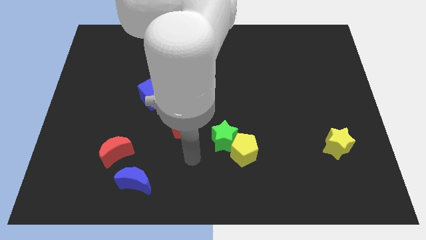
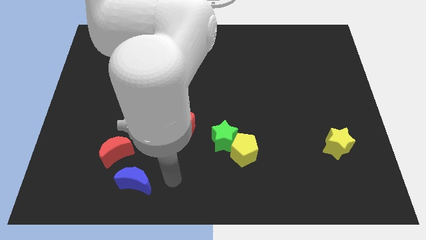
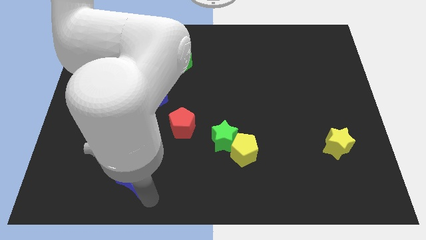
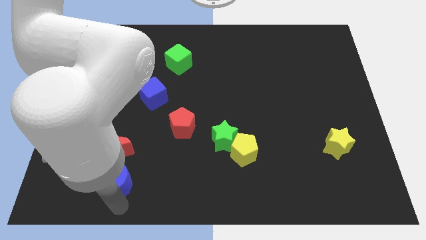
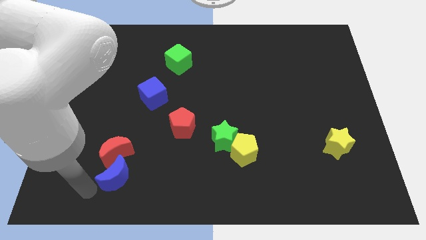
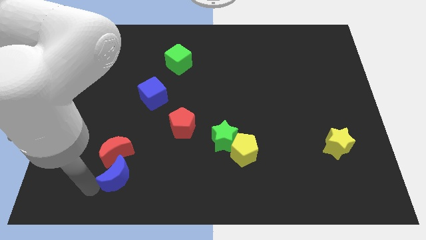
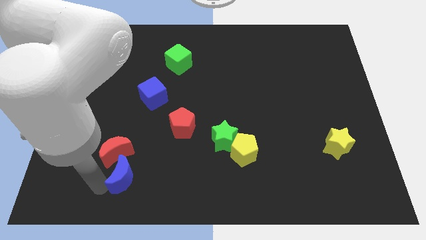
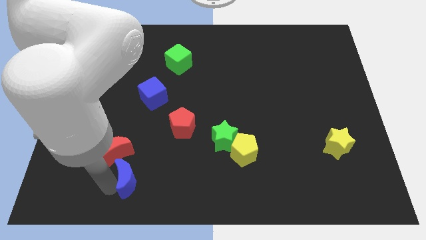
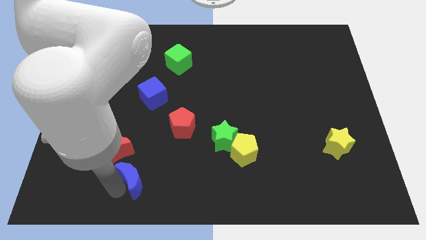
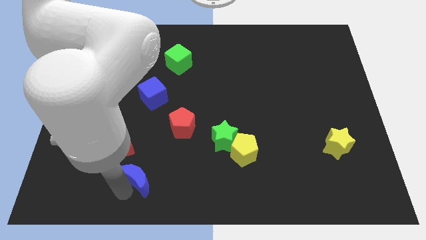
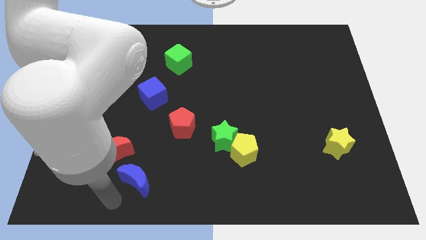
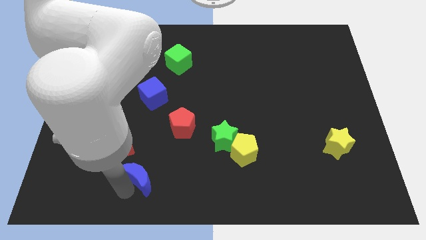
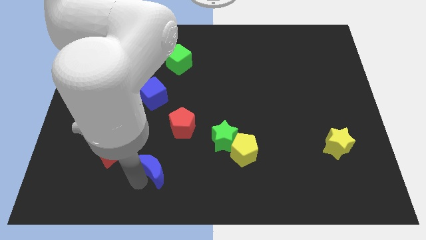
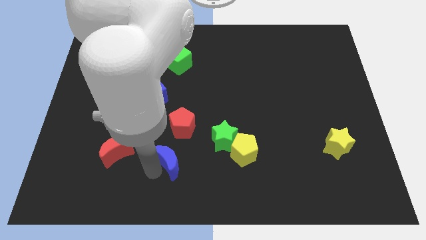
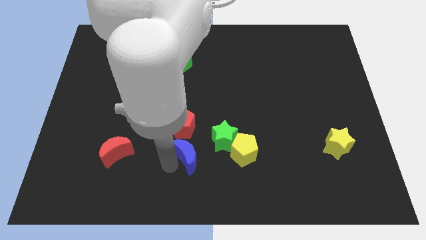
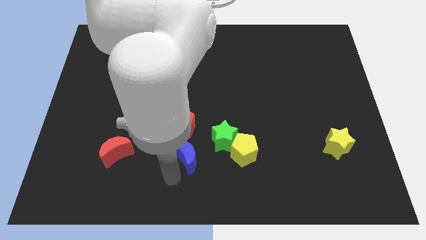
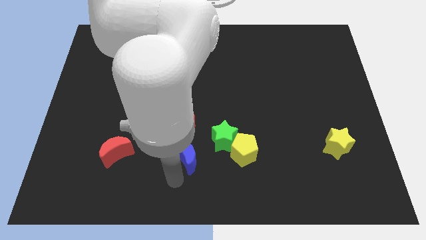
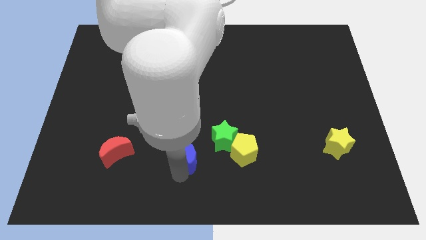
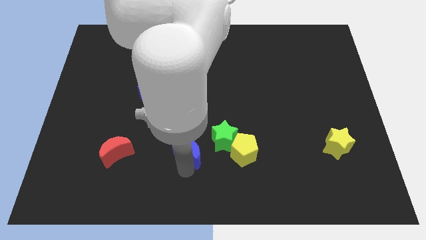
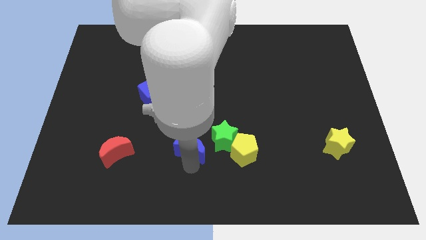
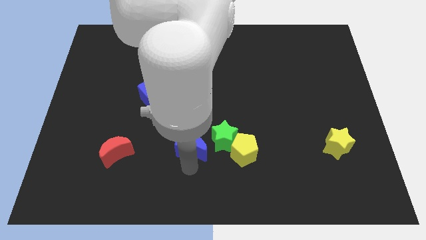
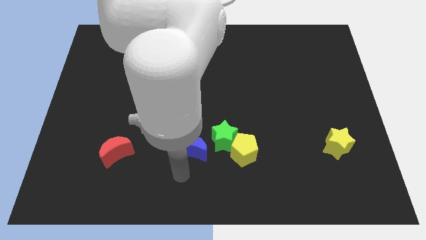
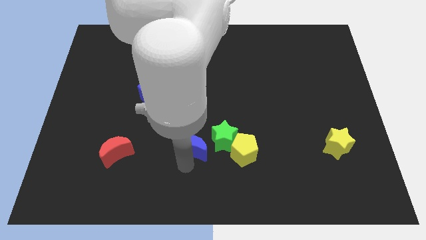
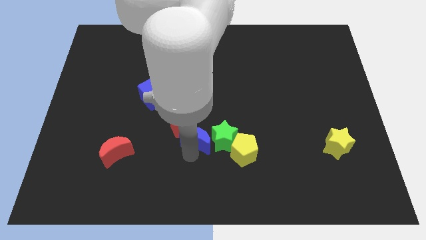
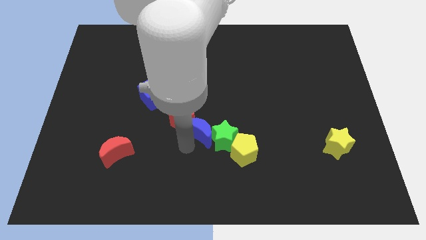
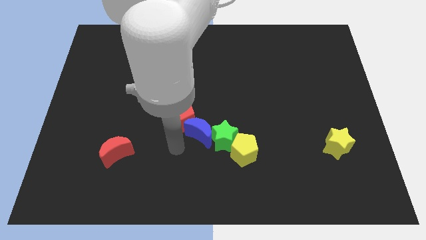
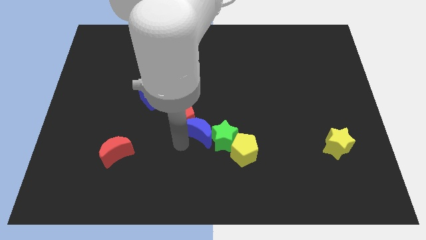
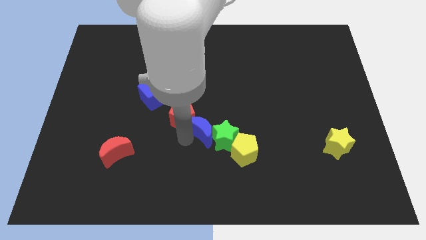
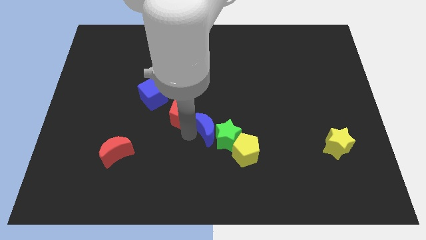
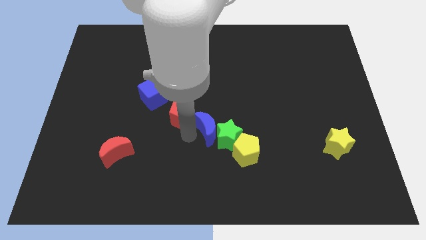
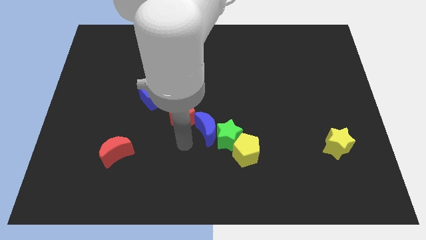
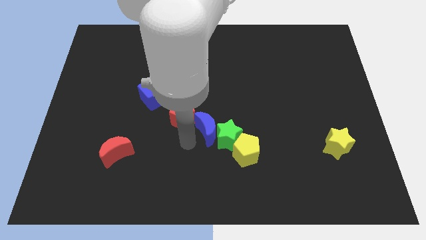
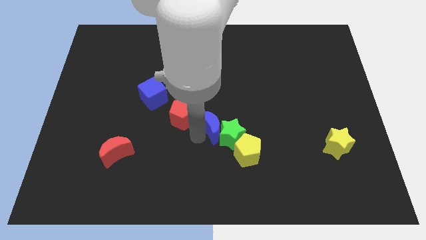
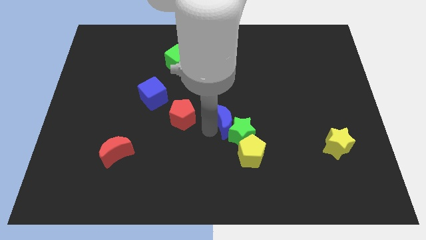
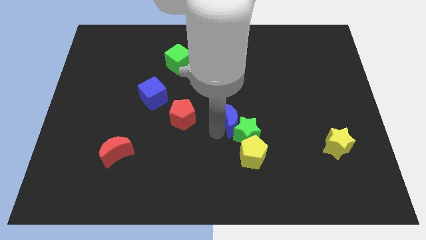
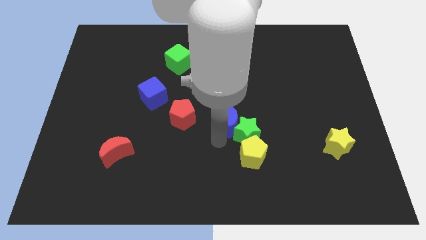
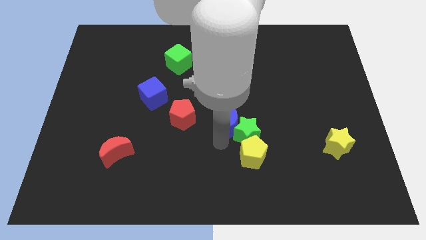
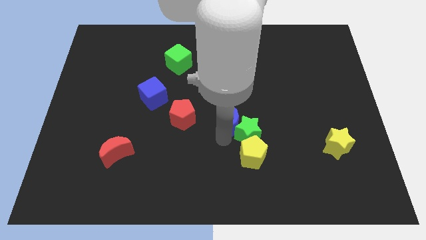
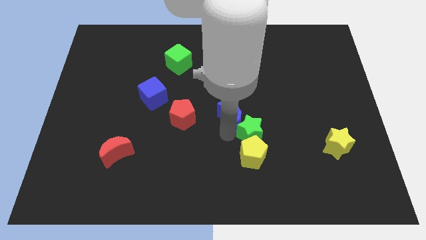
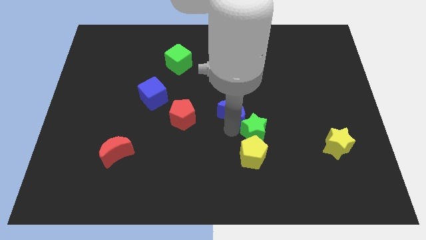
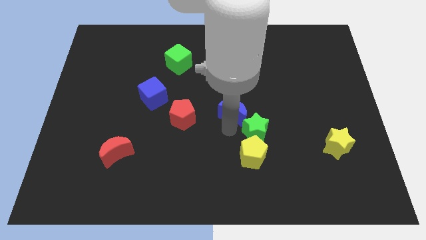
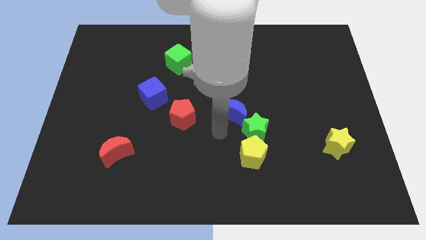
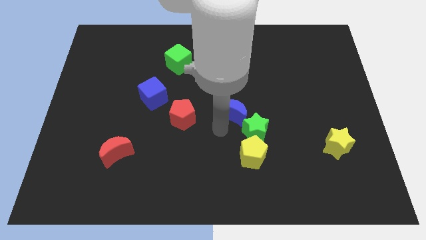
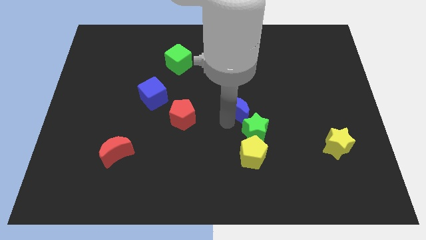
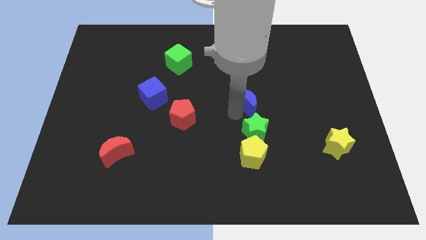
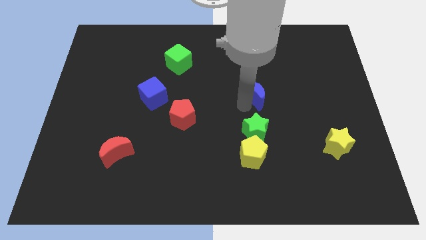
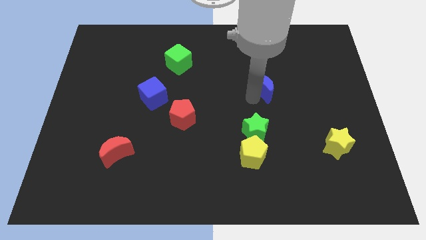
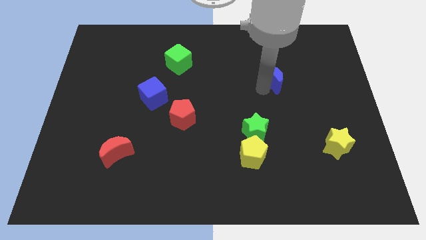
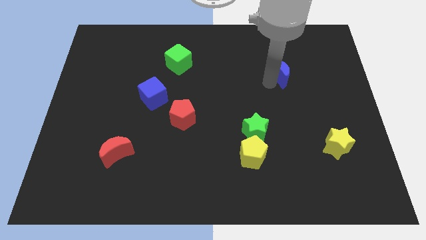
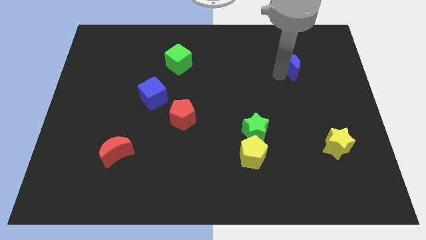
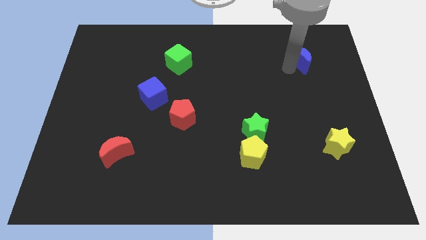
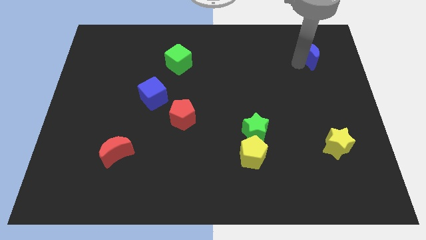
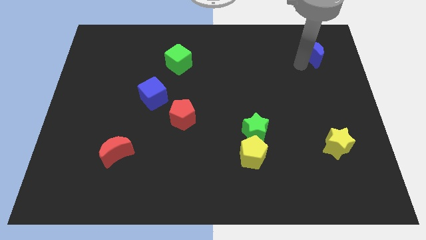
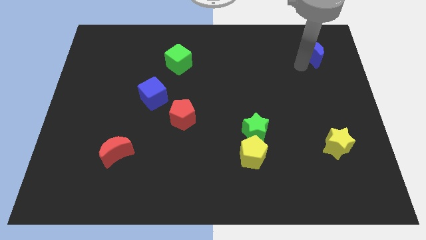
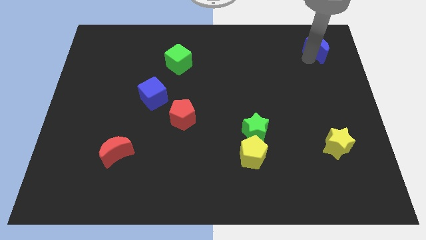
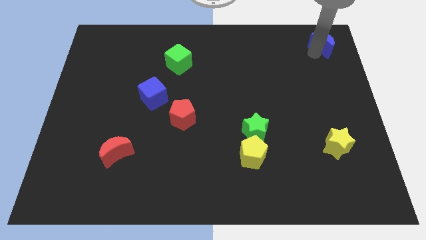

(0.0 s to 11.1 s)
move the blue moon to the top right corner

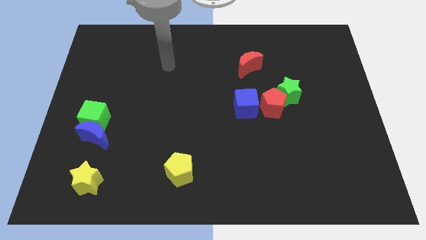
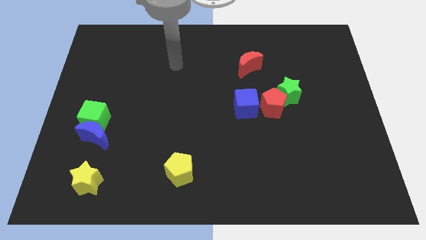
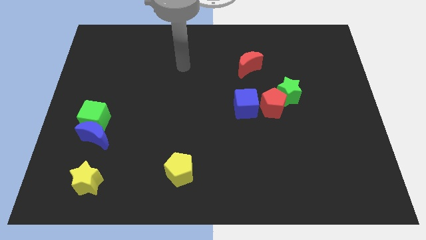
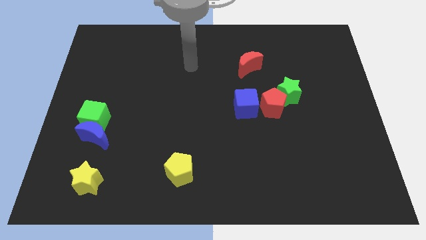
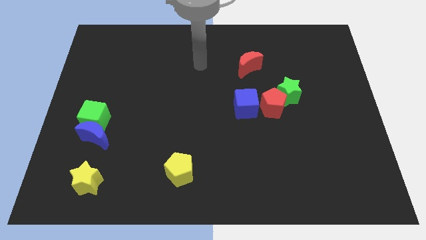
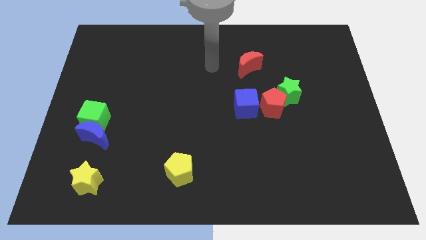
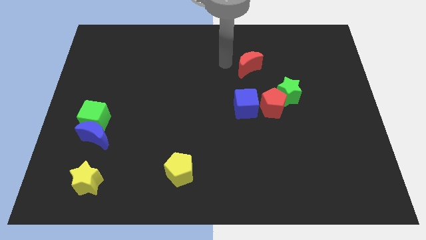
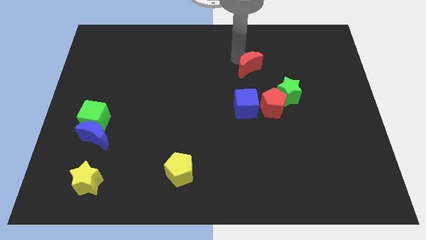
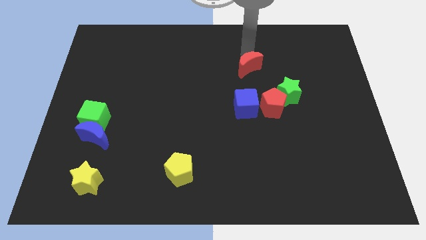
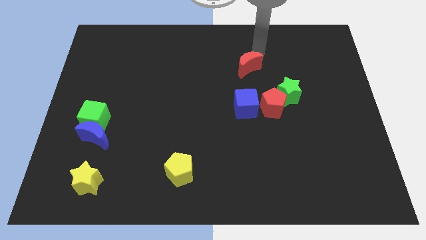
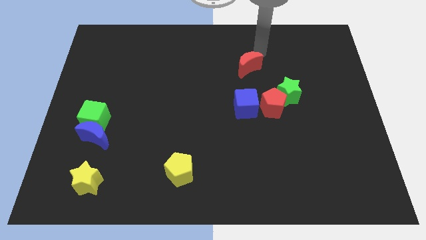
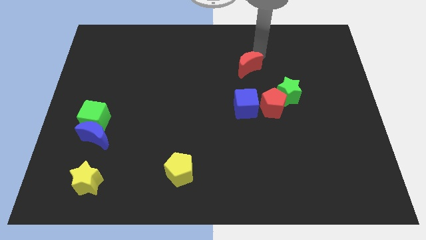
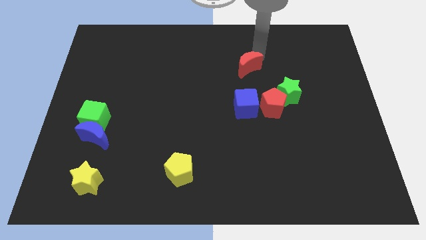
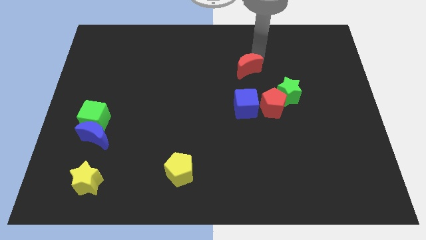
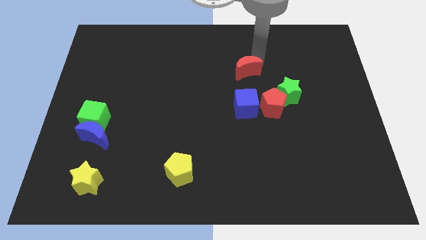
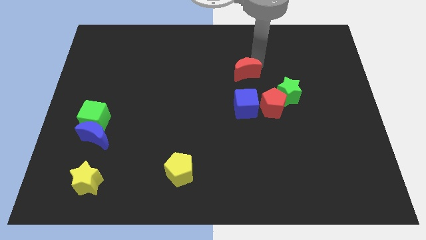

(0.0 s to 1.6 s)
put the red moon to the middle
